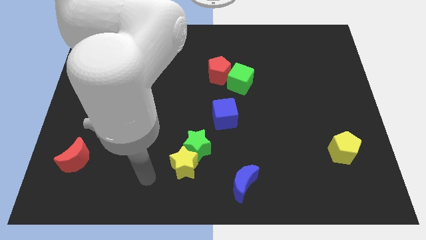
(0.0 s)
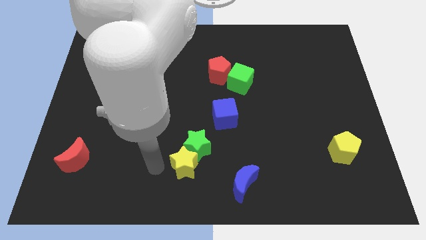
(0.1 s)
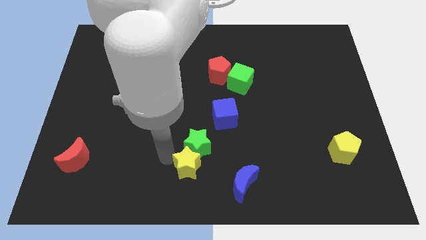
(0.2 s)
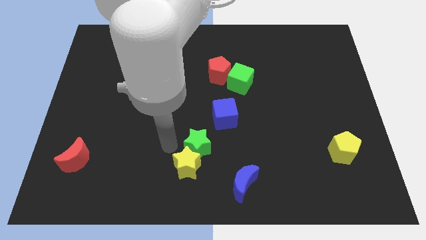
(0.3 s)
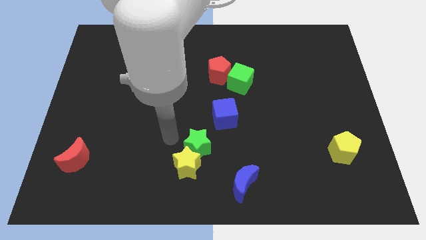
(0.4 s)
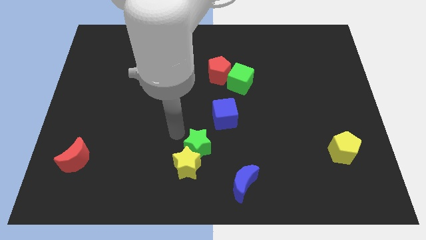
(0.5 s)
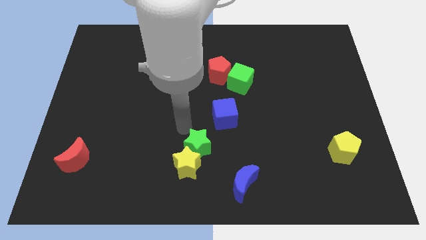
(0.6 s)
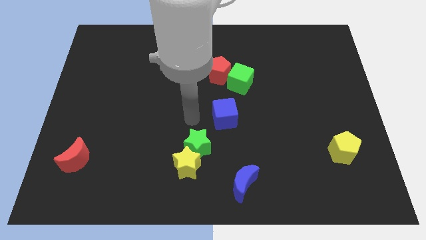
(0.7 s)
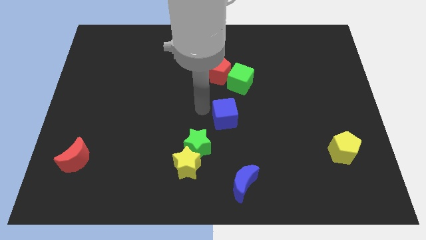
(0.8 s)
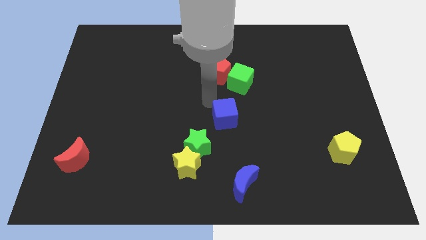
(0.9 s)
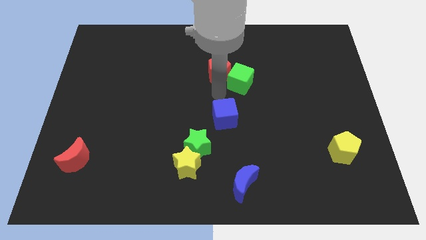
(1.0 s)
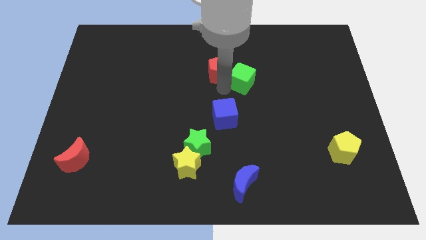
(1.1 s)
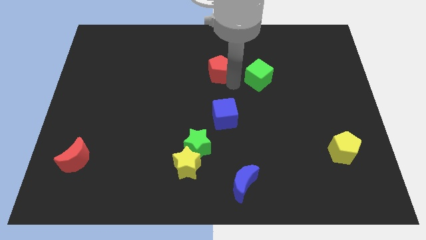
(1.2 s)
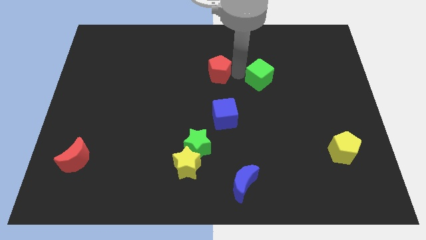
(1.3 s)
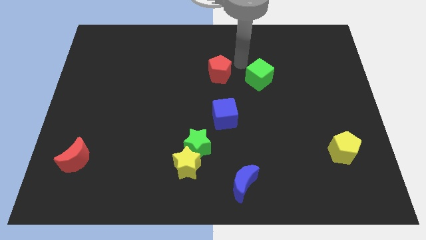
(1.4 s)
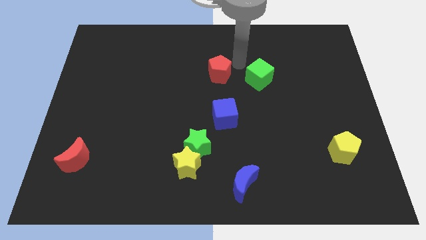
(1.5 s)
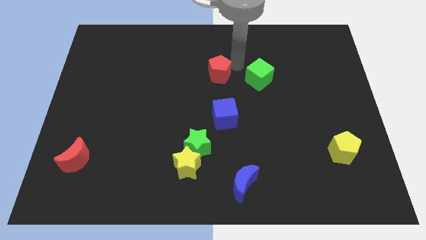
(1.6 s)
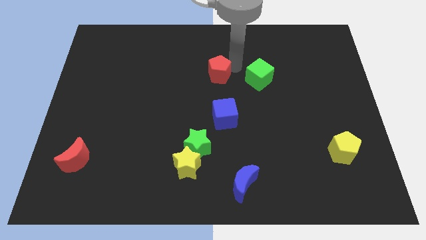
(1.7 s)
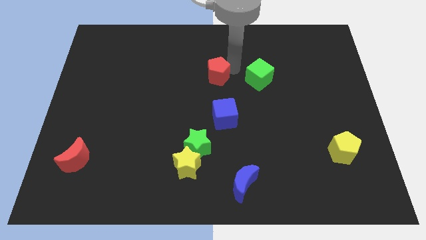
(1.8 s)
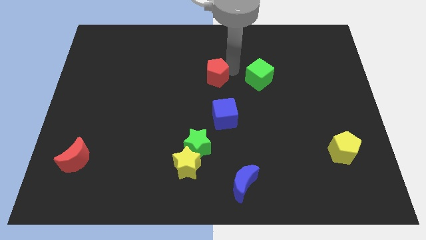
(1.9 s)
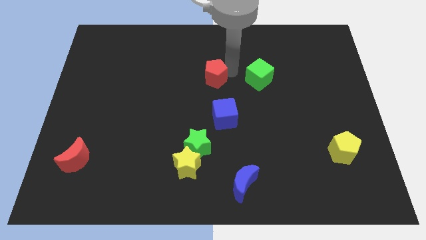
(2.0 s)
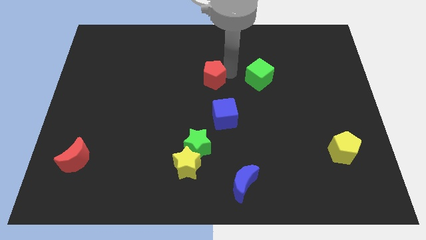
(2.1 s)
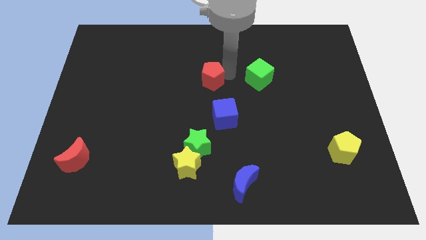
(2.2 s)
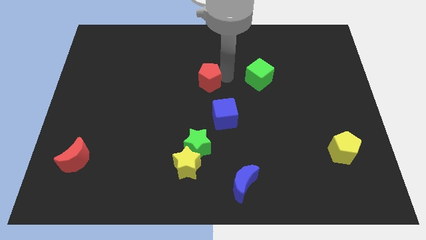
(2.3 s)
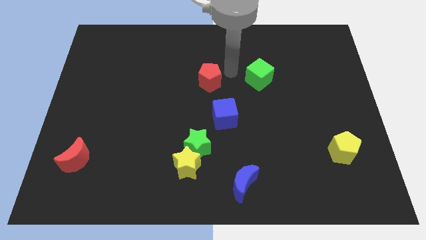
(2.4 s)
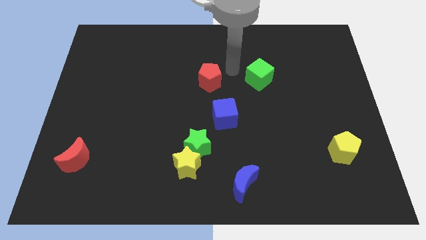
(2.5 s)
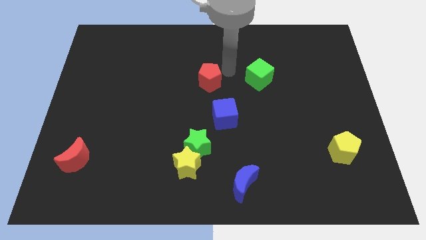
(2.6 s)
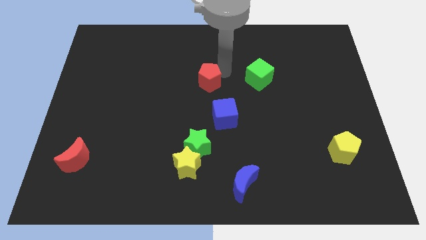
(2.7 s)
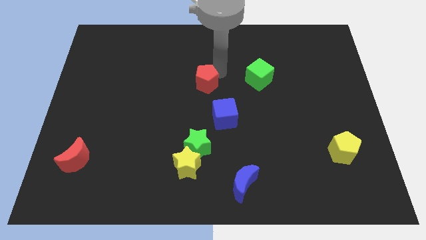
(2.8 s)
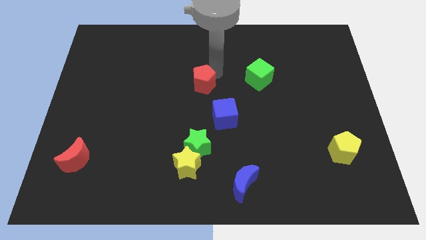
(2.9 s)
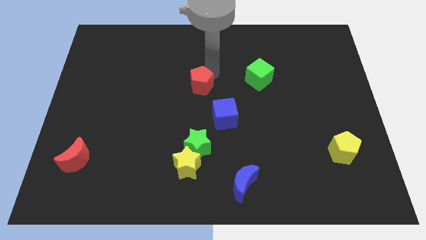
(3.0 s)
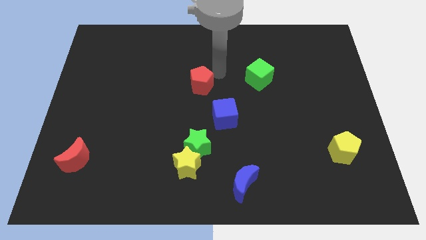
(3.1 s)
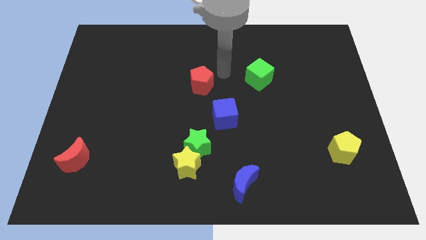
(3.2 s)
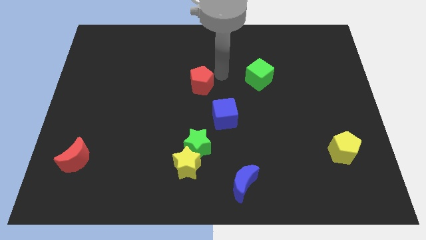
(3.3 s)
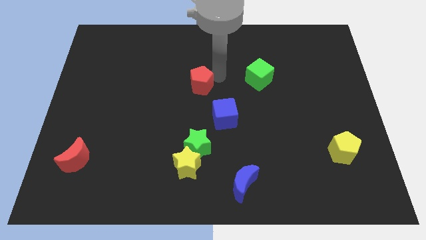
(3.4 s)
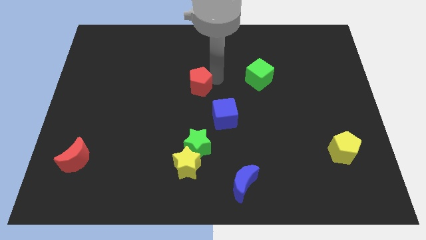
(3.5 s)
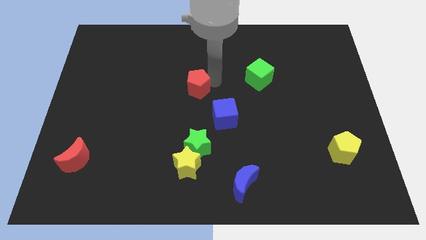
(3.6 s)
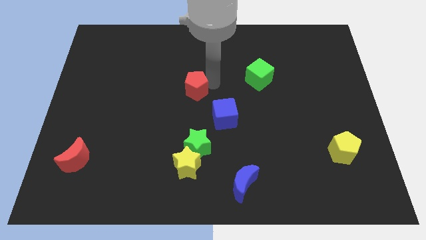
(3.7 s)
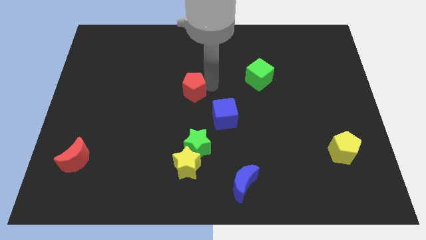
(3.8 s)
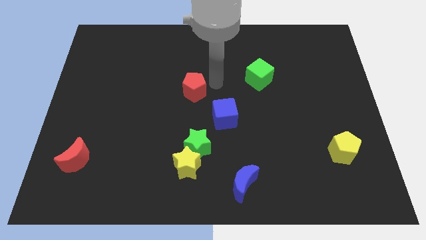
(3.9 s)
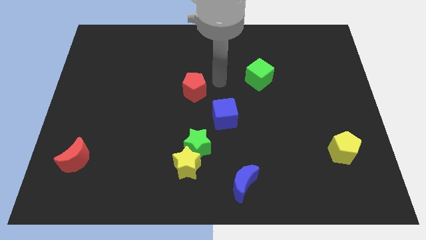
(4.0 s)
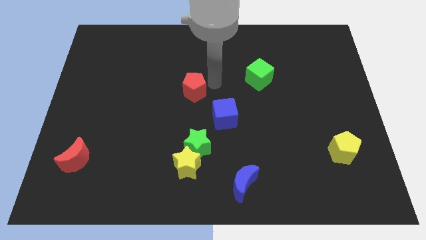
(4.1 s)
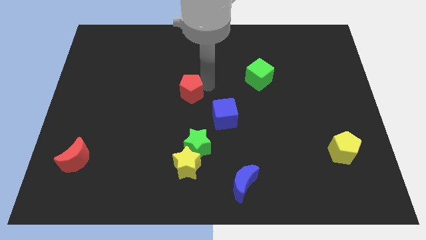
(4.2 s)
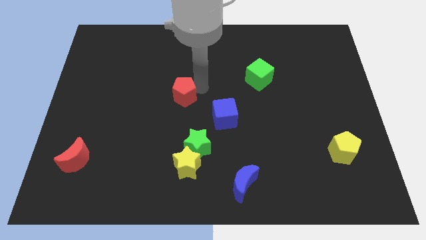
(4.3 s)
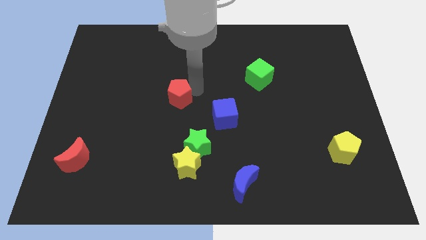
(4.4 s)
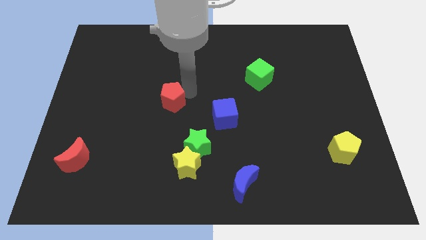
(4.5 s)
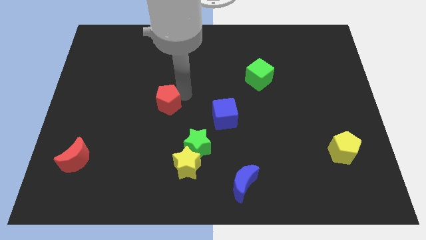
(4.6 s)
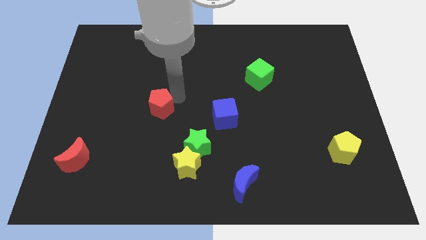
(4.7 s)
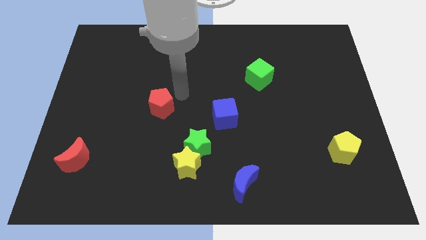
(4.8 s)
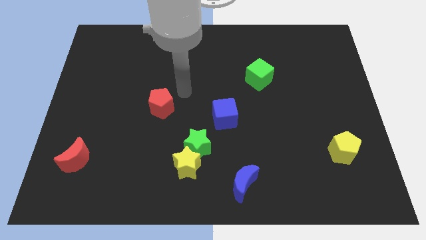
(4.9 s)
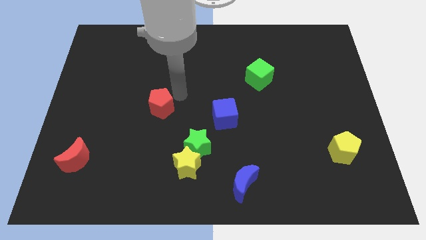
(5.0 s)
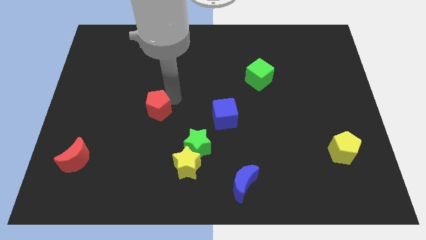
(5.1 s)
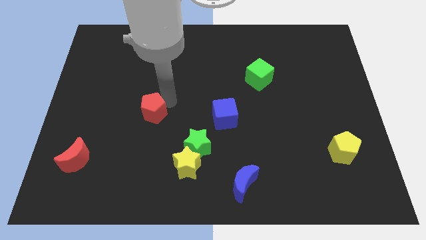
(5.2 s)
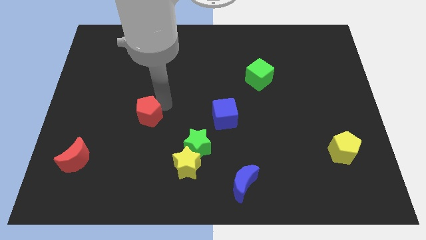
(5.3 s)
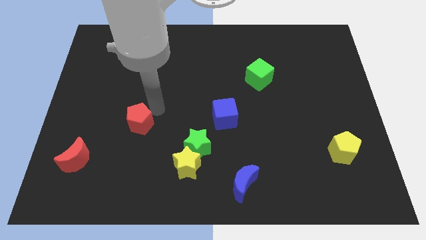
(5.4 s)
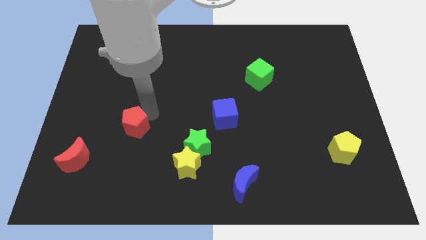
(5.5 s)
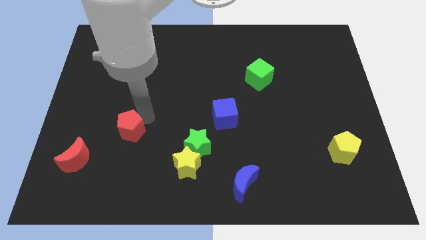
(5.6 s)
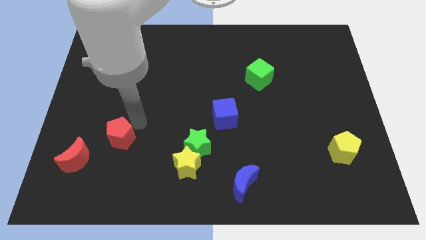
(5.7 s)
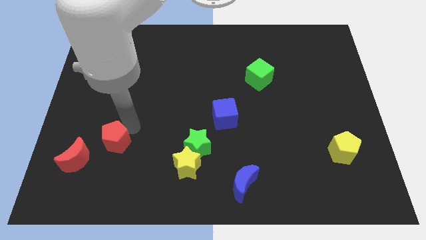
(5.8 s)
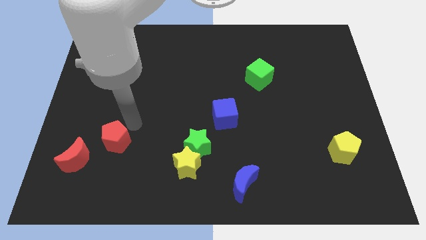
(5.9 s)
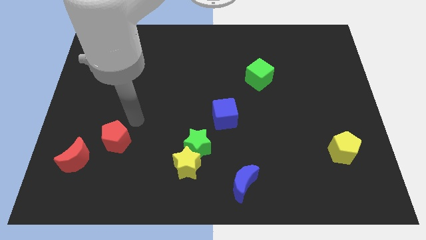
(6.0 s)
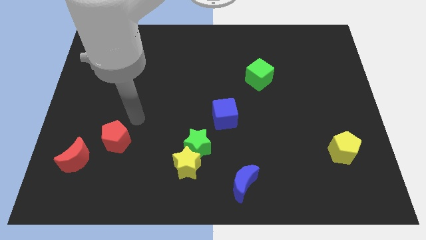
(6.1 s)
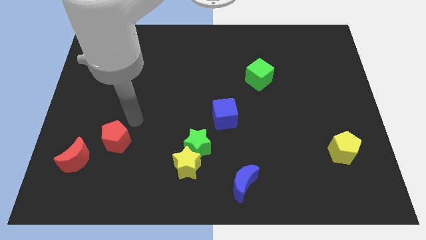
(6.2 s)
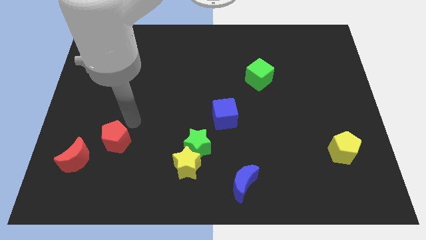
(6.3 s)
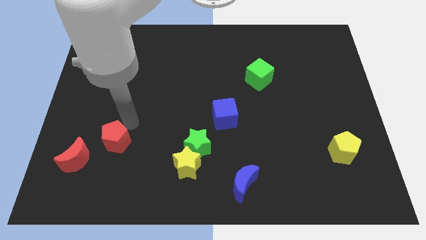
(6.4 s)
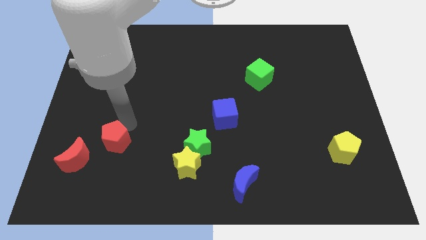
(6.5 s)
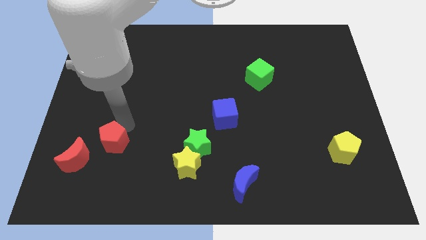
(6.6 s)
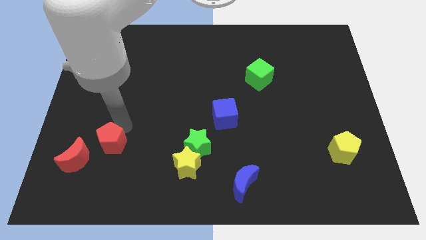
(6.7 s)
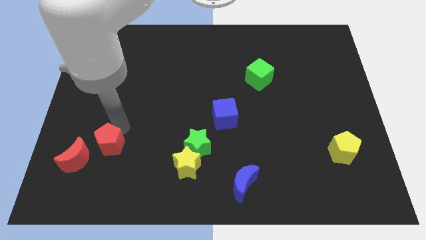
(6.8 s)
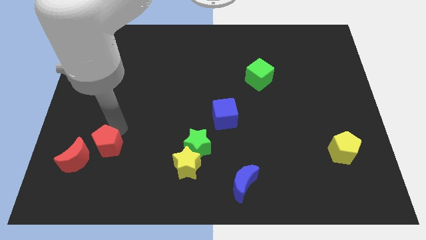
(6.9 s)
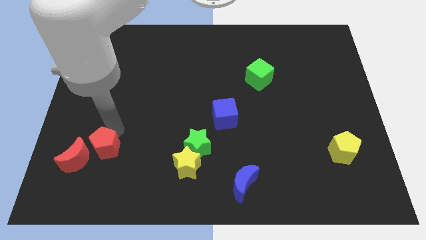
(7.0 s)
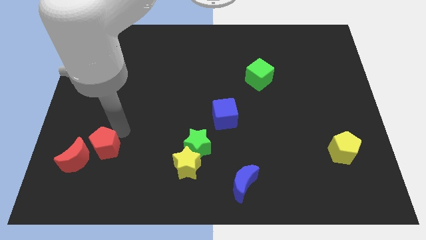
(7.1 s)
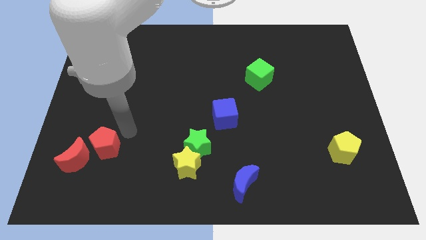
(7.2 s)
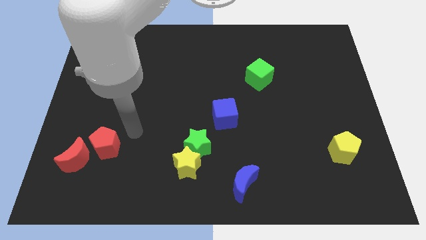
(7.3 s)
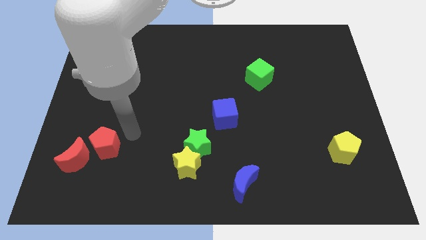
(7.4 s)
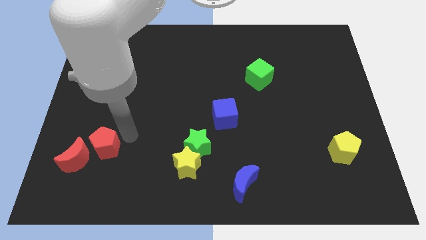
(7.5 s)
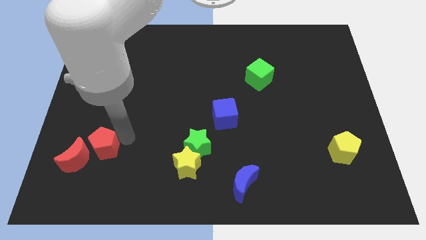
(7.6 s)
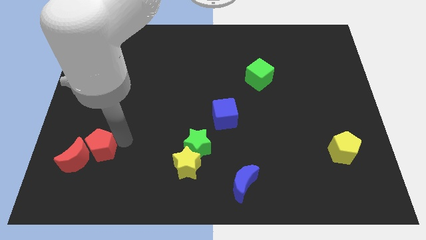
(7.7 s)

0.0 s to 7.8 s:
slide the red pentagon towards the red moon
